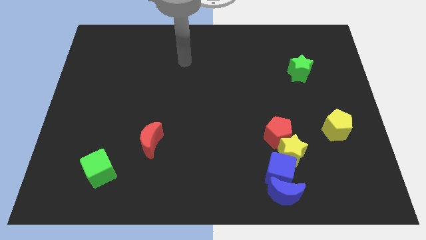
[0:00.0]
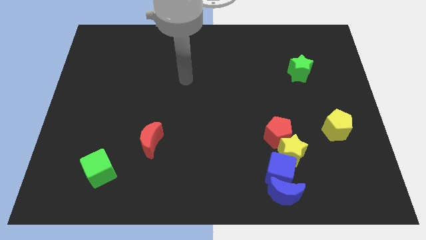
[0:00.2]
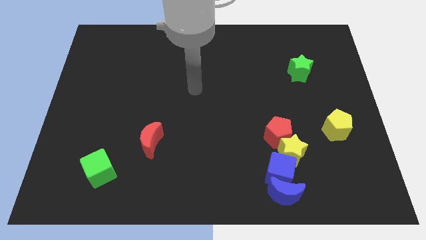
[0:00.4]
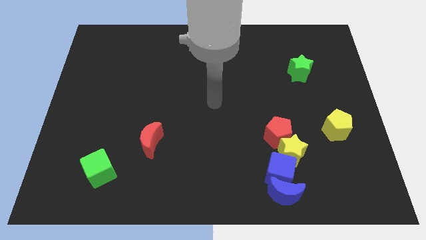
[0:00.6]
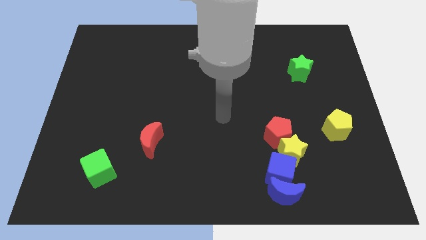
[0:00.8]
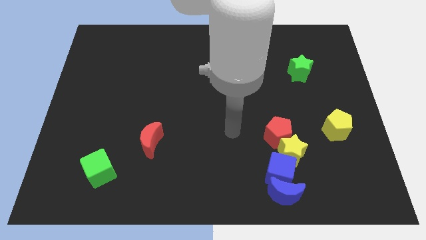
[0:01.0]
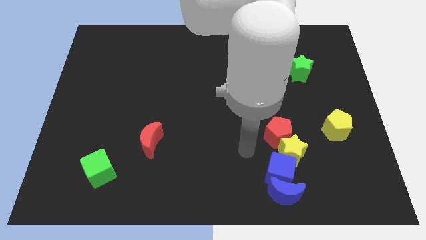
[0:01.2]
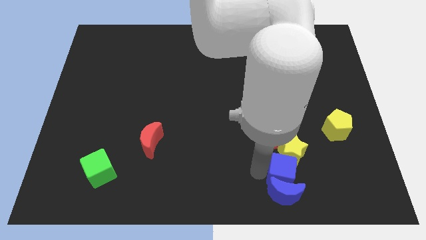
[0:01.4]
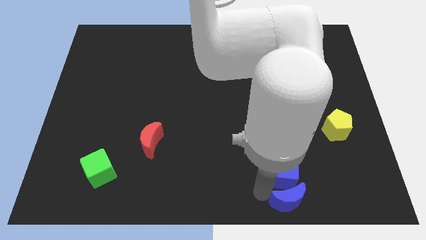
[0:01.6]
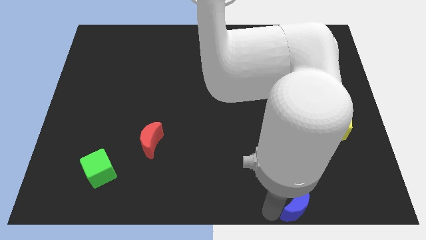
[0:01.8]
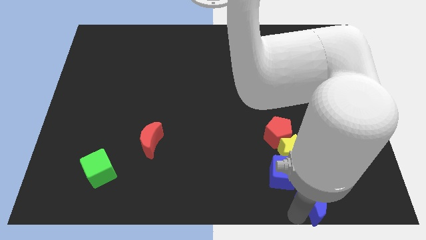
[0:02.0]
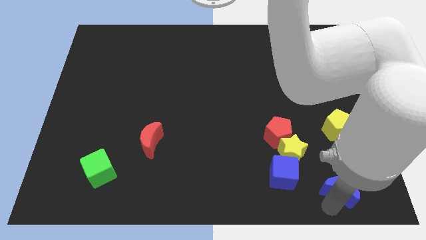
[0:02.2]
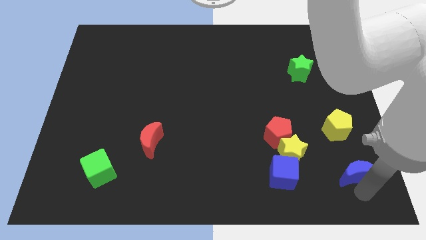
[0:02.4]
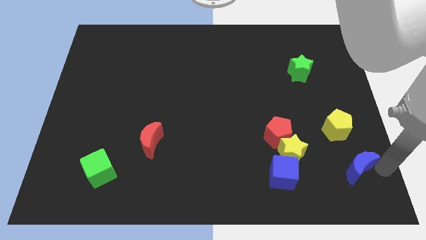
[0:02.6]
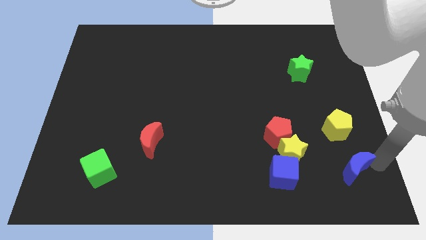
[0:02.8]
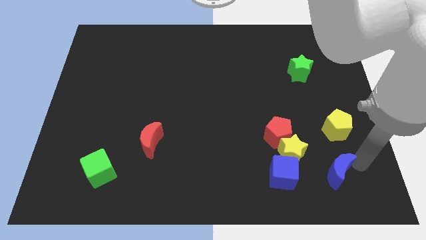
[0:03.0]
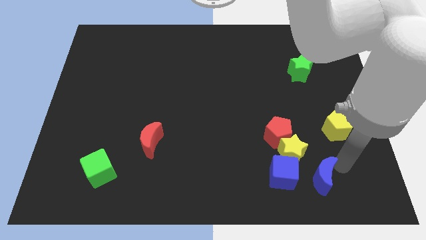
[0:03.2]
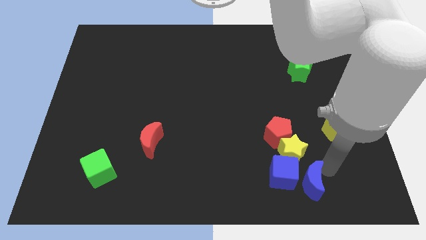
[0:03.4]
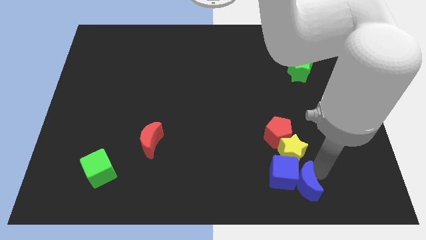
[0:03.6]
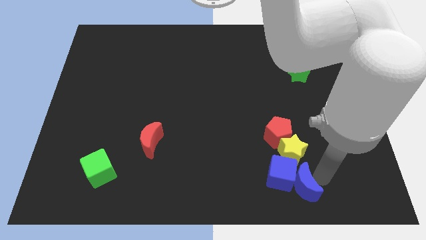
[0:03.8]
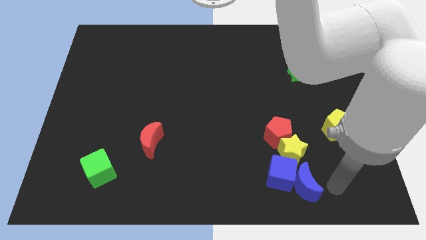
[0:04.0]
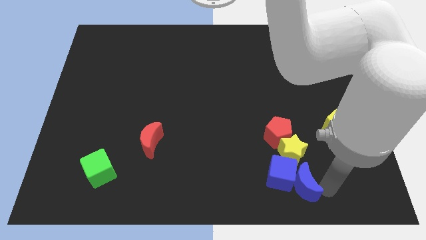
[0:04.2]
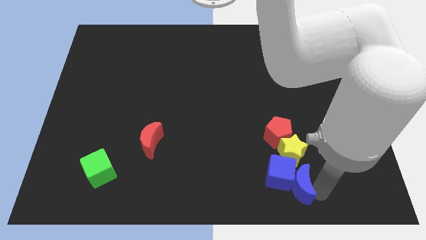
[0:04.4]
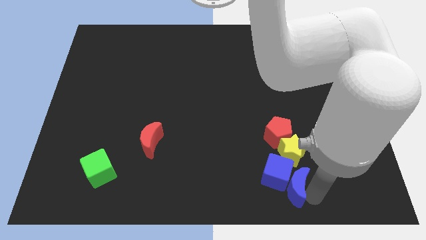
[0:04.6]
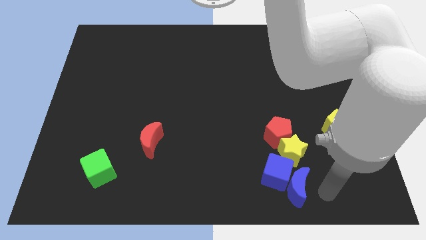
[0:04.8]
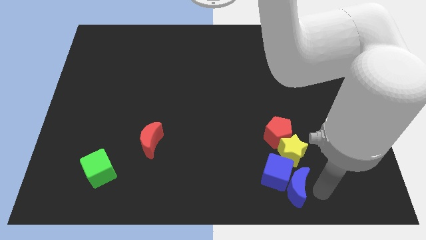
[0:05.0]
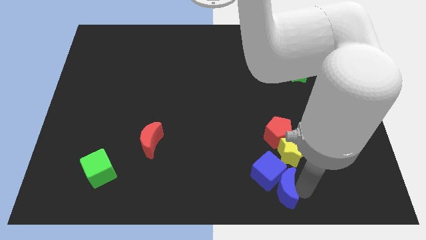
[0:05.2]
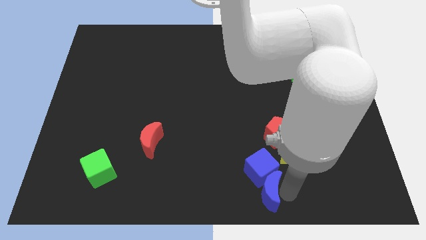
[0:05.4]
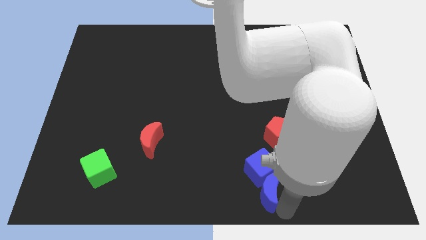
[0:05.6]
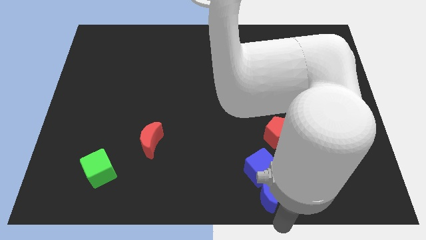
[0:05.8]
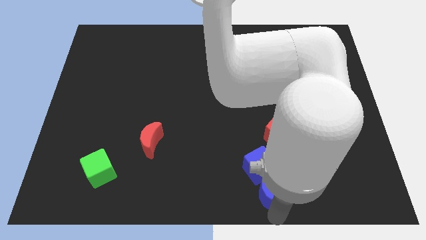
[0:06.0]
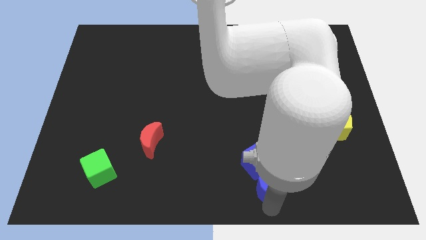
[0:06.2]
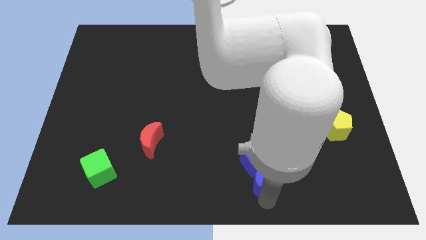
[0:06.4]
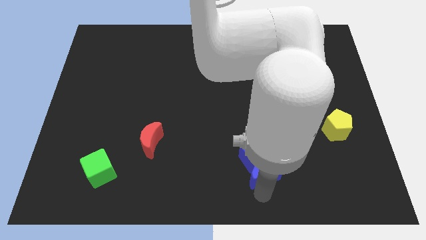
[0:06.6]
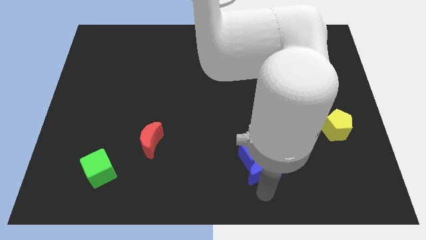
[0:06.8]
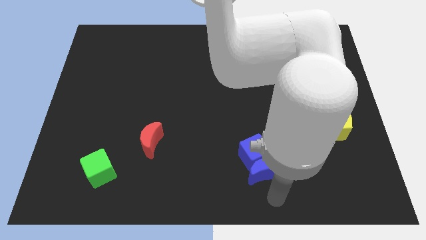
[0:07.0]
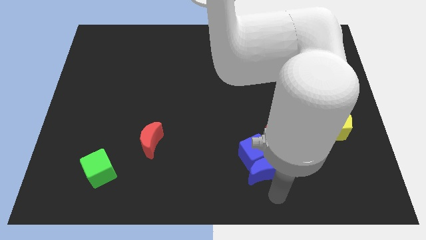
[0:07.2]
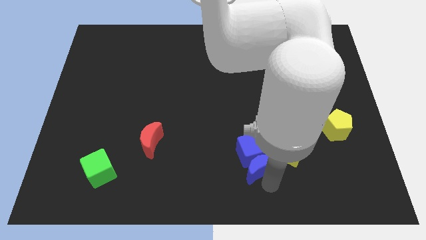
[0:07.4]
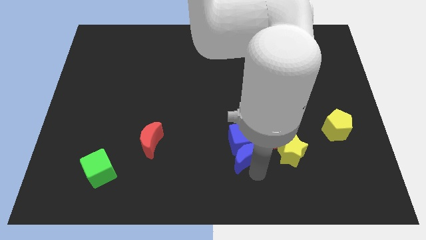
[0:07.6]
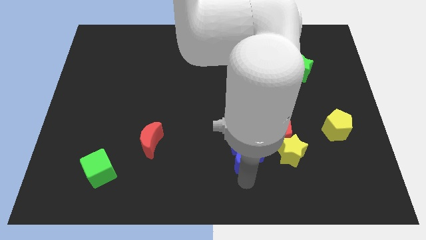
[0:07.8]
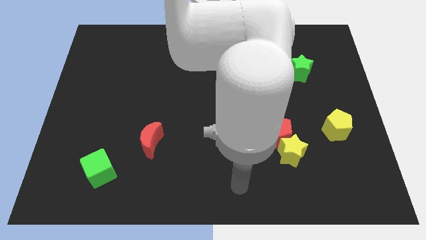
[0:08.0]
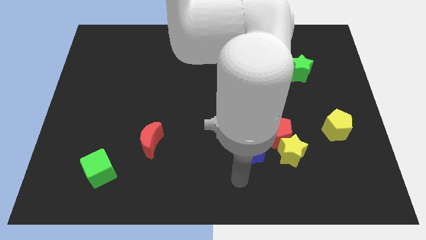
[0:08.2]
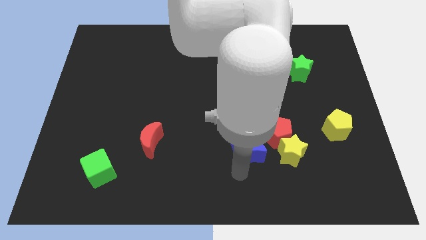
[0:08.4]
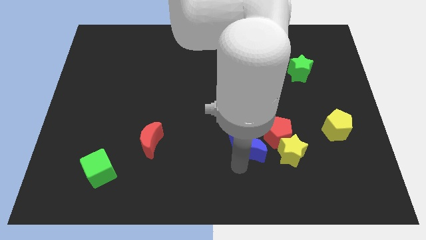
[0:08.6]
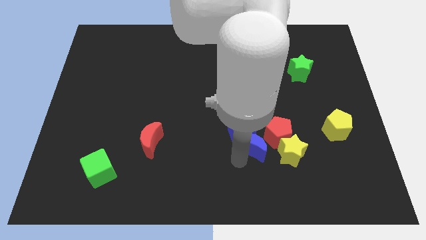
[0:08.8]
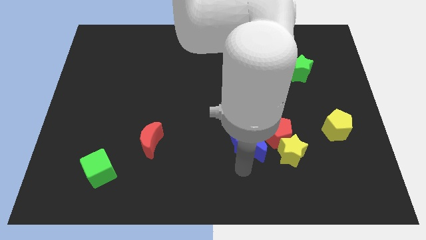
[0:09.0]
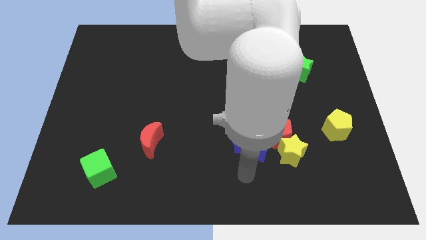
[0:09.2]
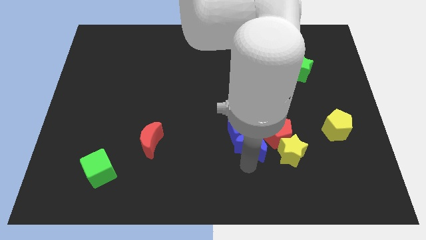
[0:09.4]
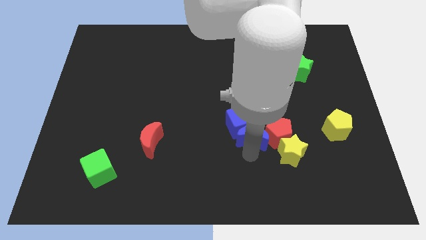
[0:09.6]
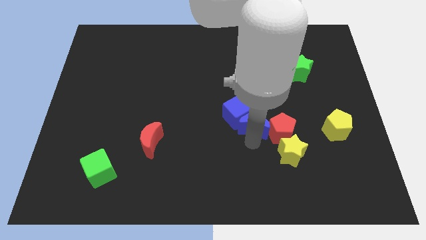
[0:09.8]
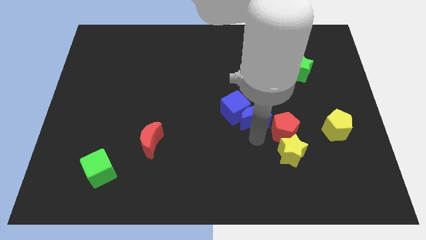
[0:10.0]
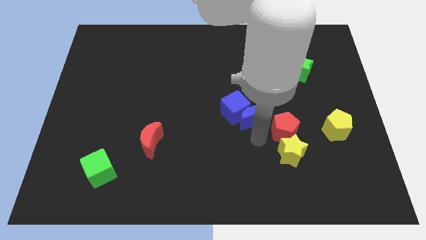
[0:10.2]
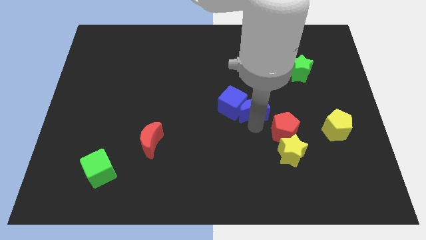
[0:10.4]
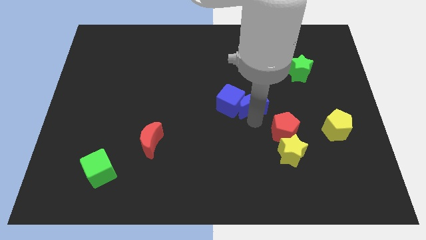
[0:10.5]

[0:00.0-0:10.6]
slide the blue moon up

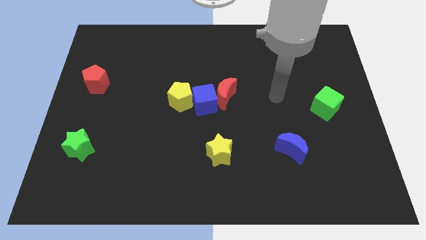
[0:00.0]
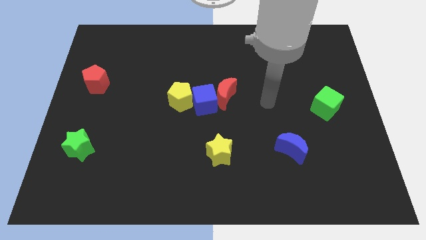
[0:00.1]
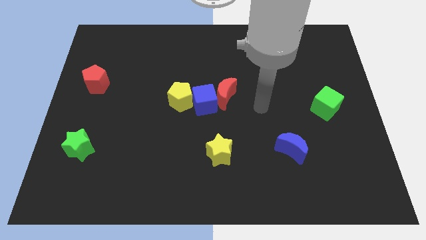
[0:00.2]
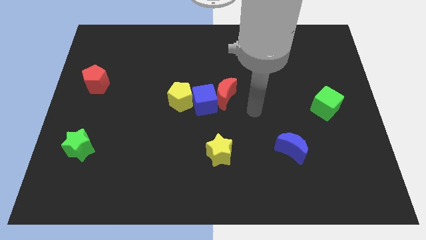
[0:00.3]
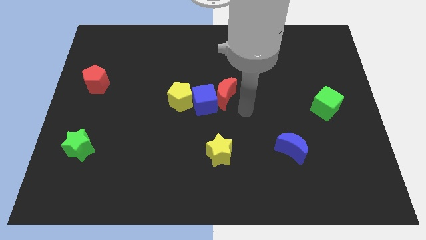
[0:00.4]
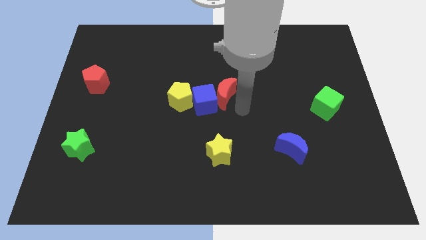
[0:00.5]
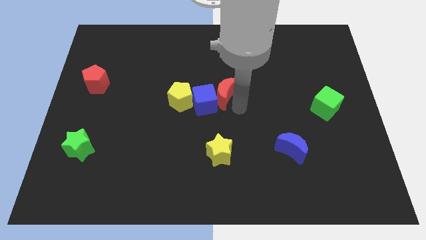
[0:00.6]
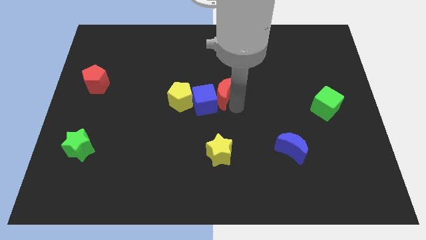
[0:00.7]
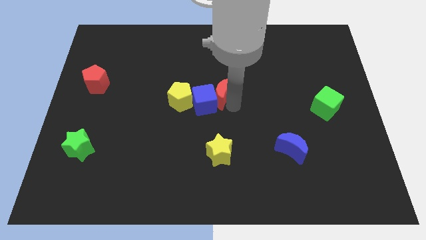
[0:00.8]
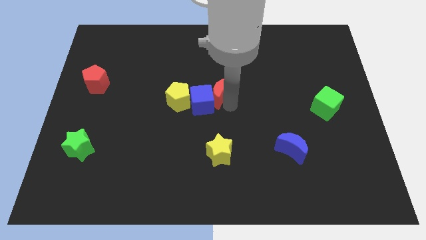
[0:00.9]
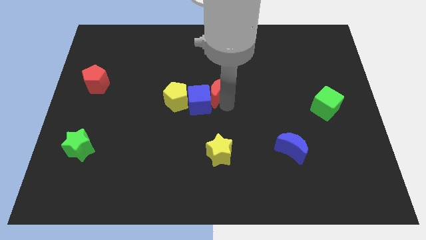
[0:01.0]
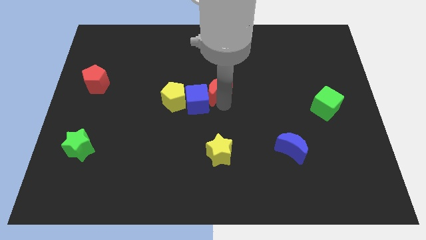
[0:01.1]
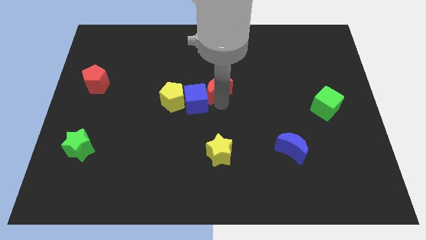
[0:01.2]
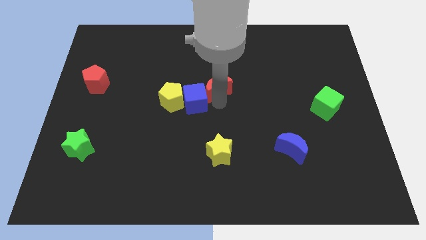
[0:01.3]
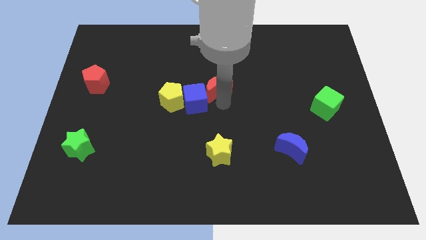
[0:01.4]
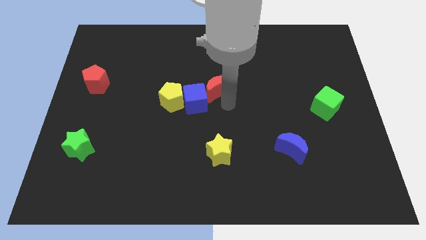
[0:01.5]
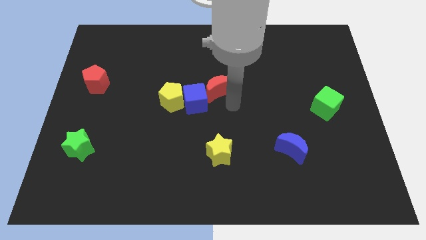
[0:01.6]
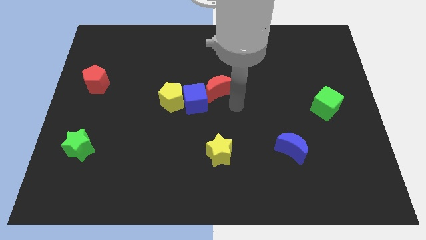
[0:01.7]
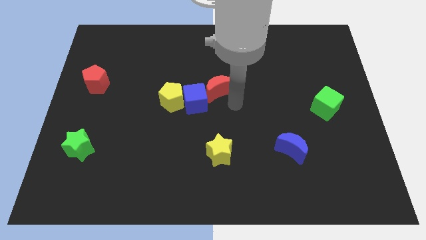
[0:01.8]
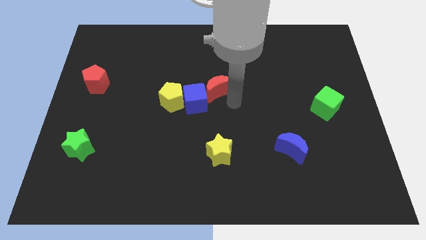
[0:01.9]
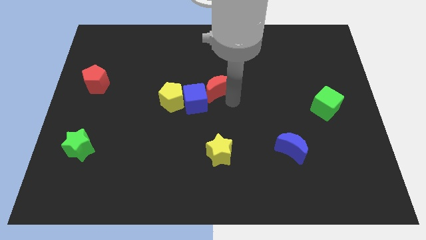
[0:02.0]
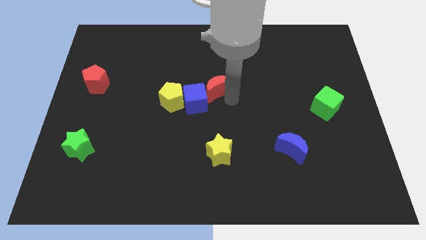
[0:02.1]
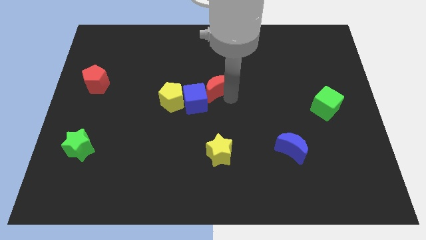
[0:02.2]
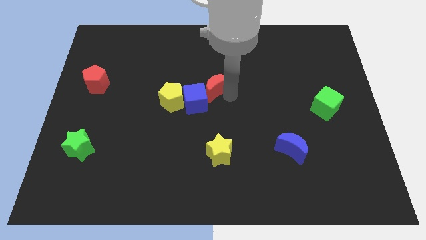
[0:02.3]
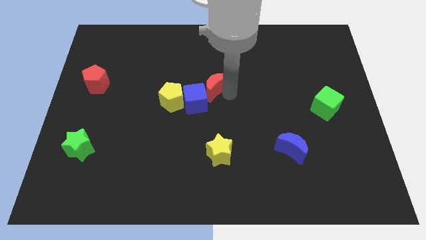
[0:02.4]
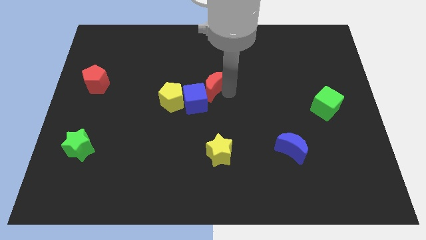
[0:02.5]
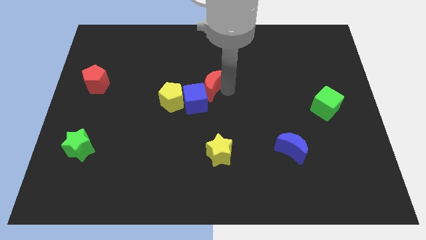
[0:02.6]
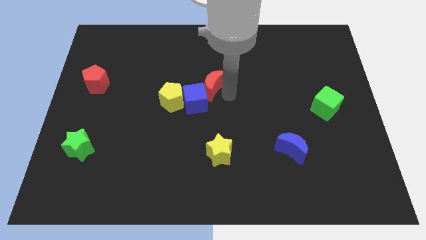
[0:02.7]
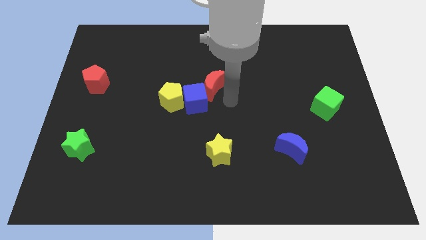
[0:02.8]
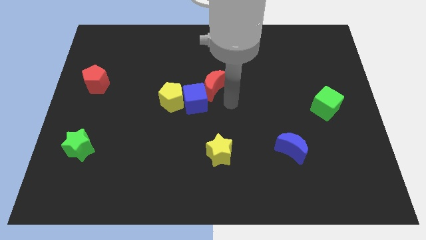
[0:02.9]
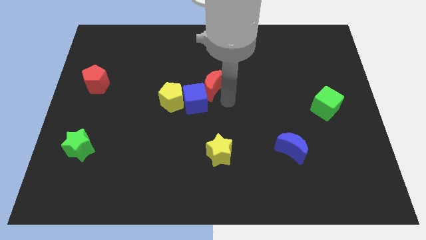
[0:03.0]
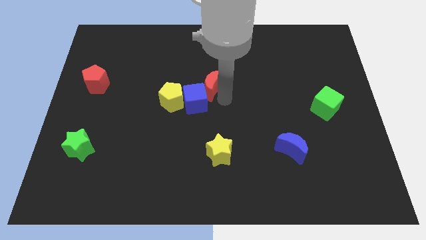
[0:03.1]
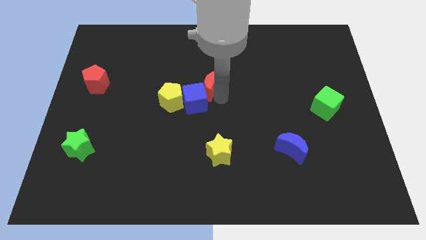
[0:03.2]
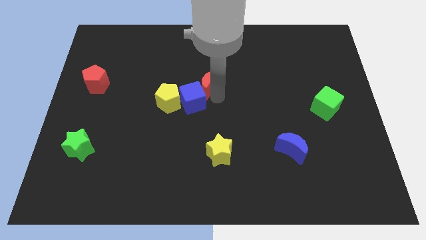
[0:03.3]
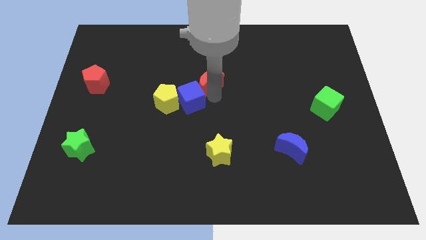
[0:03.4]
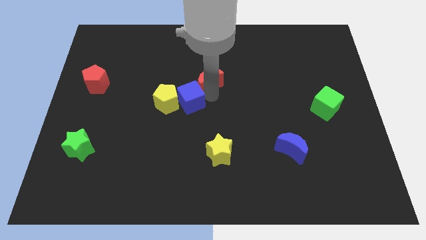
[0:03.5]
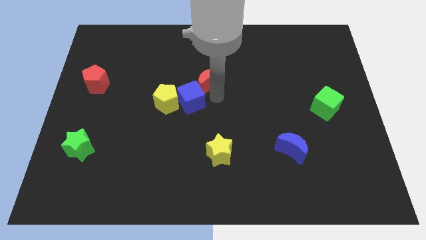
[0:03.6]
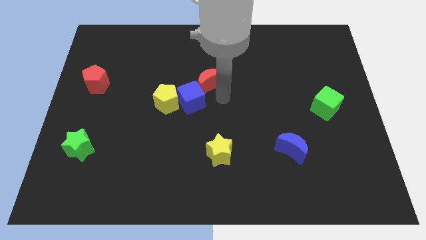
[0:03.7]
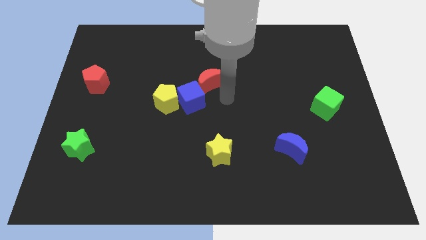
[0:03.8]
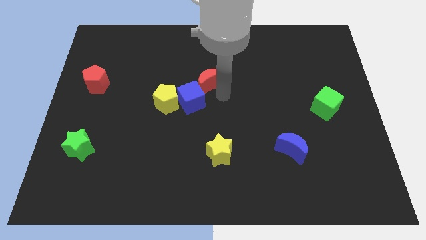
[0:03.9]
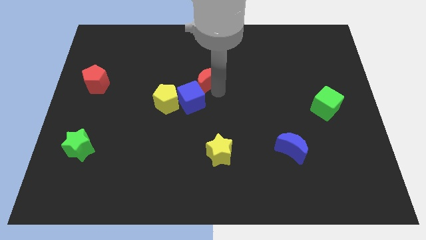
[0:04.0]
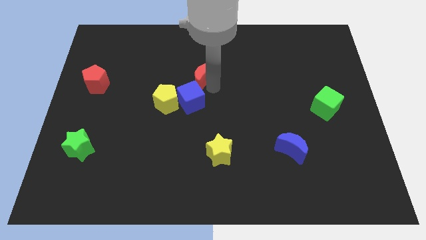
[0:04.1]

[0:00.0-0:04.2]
slide the red moon upwards and then to the left a little bit
